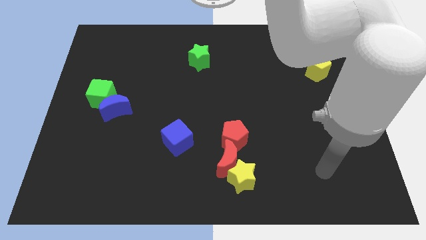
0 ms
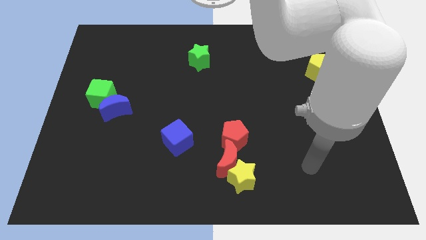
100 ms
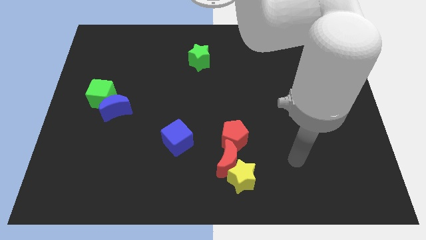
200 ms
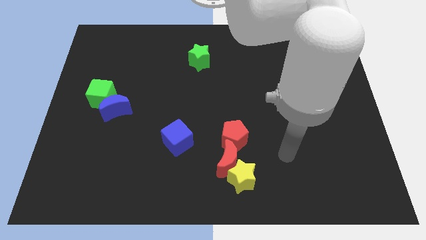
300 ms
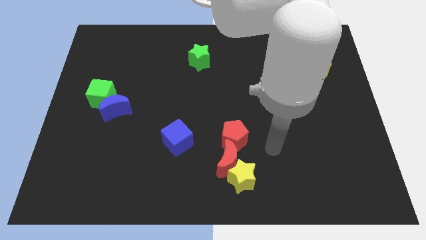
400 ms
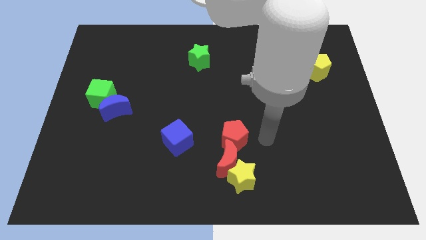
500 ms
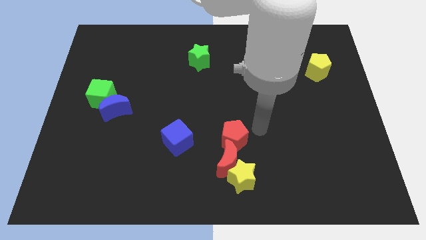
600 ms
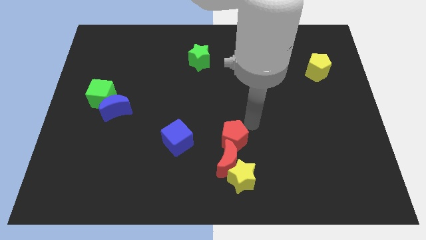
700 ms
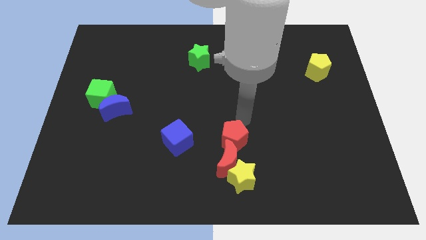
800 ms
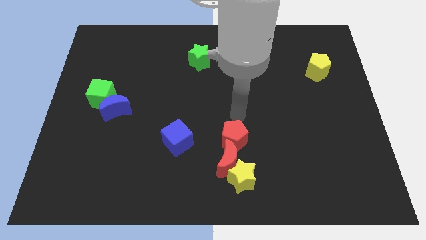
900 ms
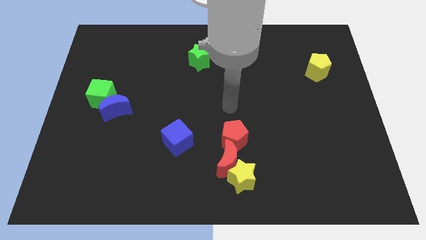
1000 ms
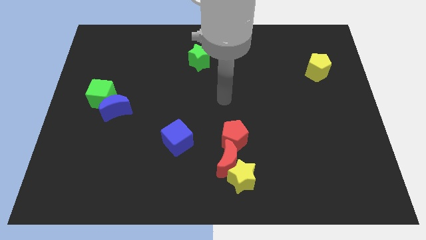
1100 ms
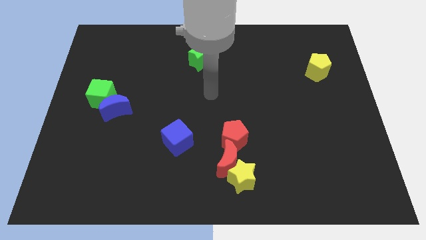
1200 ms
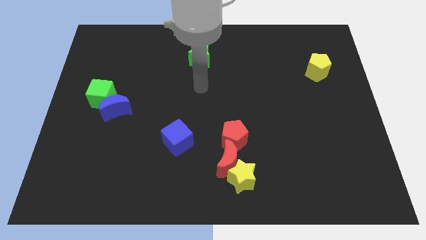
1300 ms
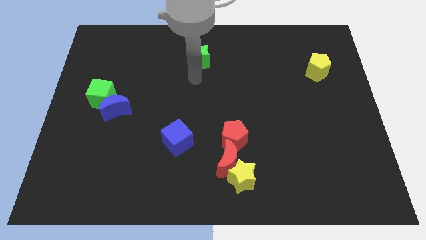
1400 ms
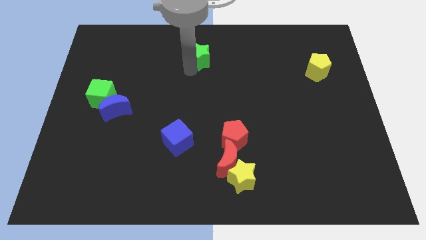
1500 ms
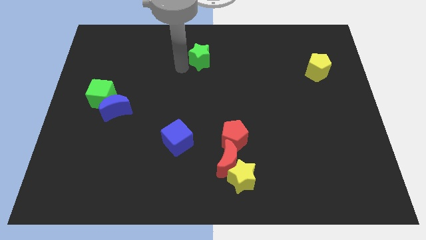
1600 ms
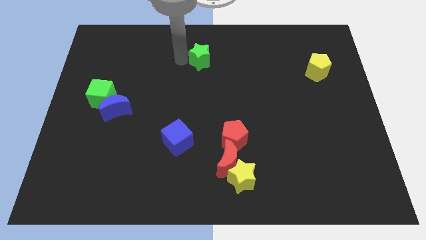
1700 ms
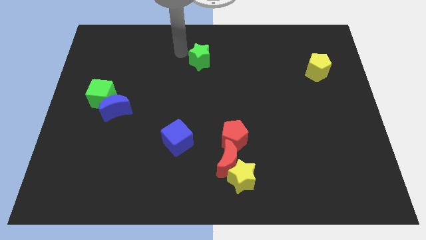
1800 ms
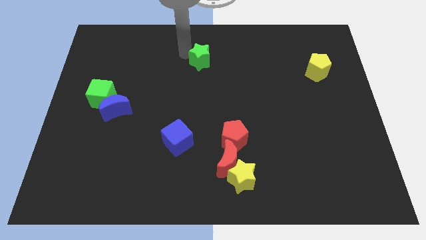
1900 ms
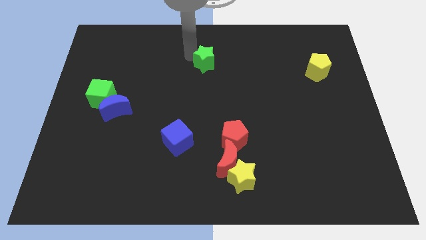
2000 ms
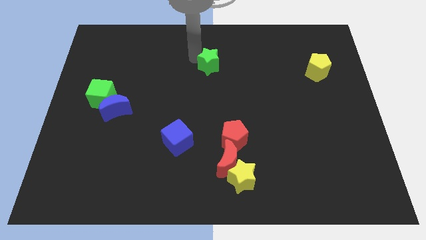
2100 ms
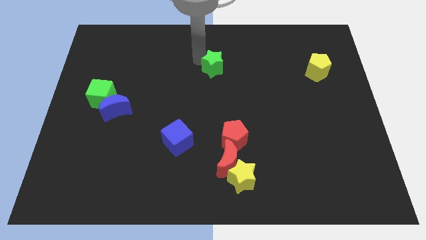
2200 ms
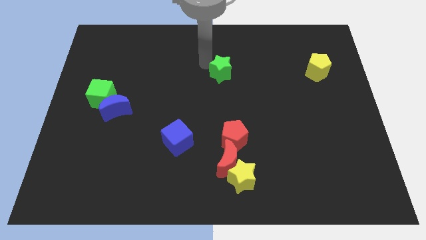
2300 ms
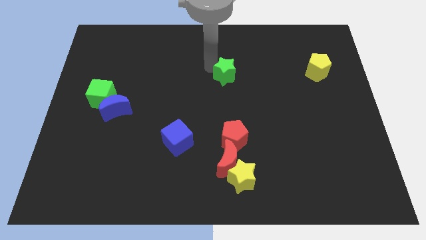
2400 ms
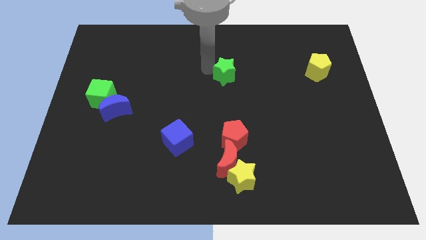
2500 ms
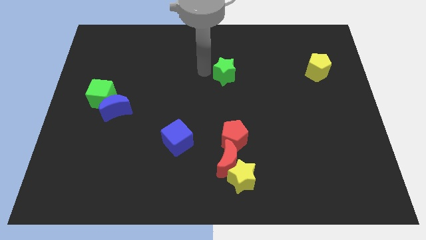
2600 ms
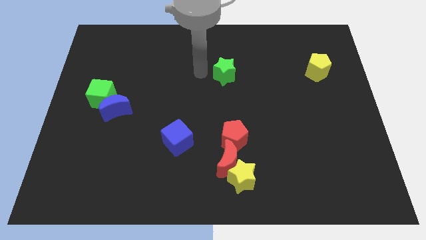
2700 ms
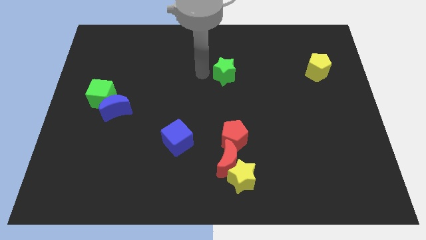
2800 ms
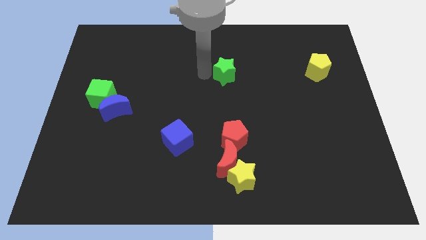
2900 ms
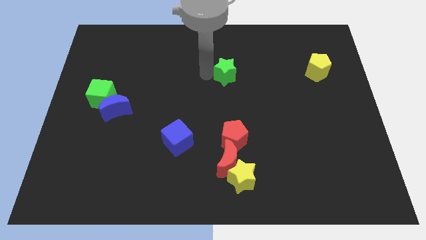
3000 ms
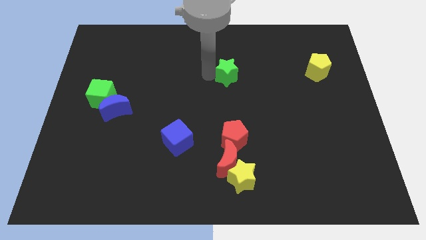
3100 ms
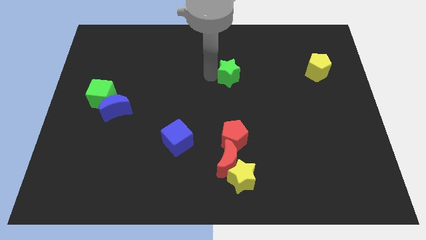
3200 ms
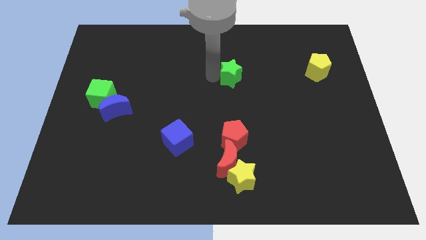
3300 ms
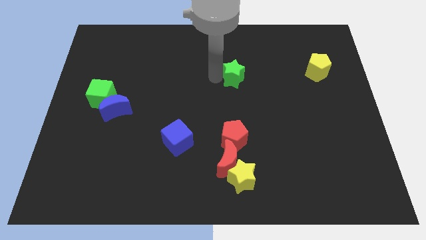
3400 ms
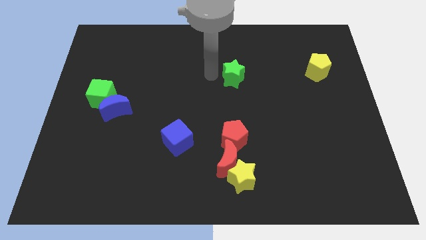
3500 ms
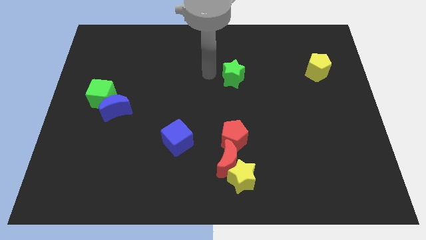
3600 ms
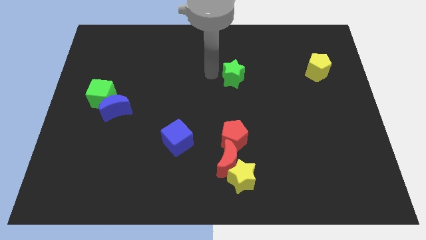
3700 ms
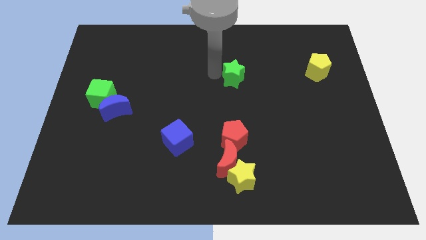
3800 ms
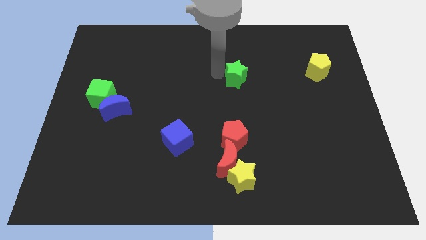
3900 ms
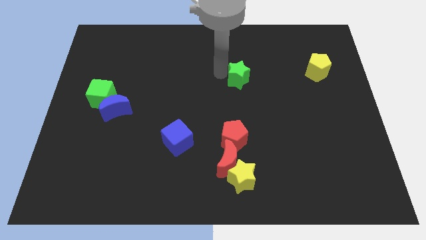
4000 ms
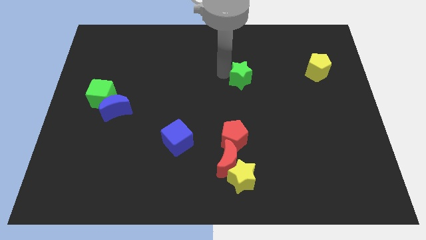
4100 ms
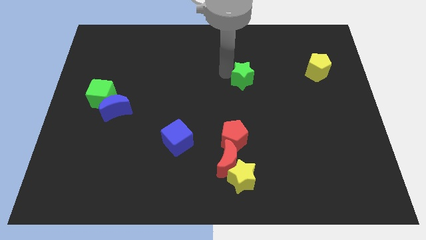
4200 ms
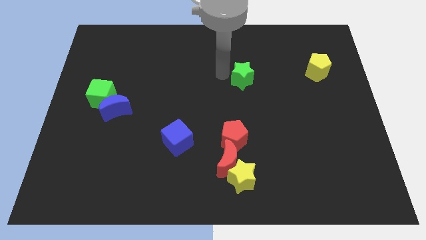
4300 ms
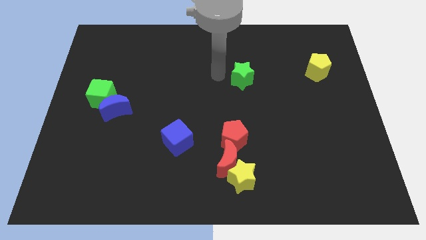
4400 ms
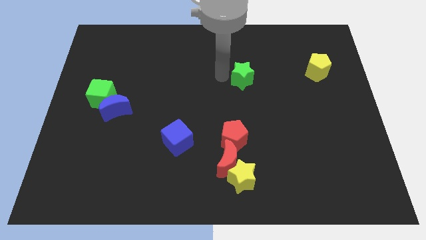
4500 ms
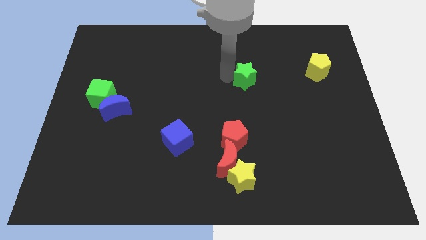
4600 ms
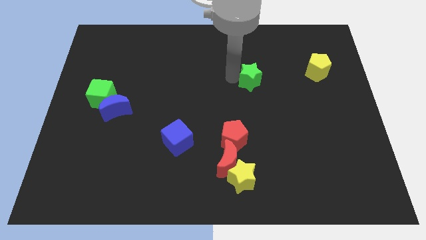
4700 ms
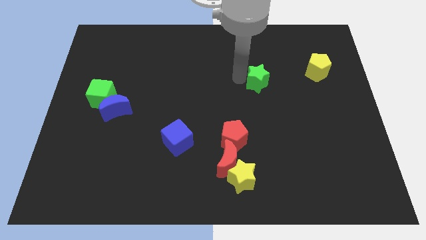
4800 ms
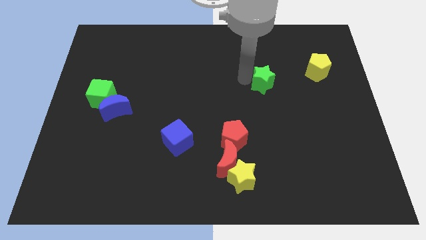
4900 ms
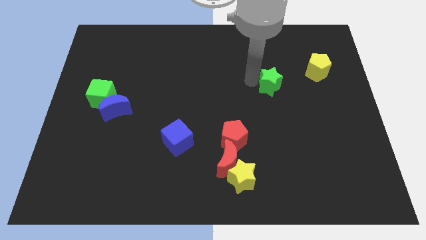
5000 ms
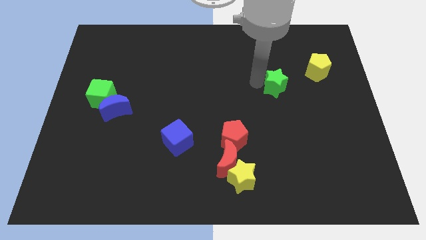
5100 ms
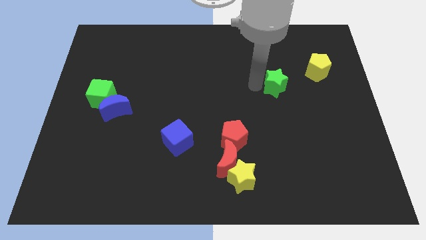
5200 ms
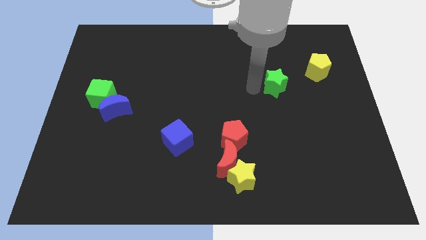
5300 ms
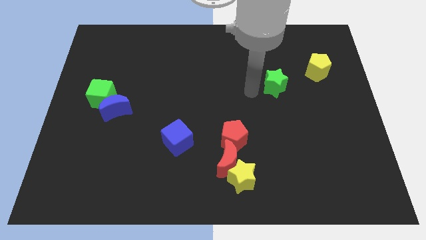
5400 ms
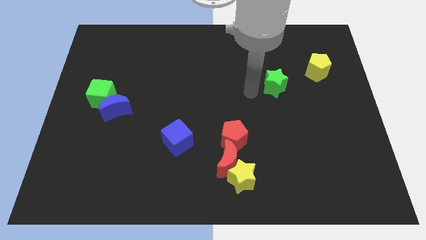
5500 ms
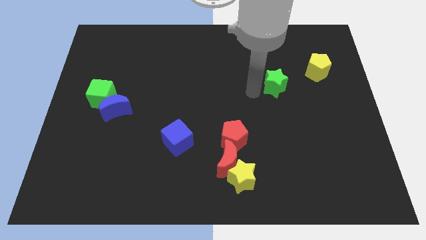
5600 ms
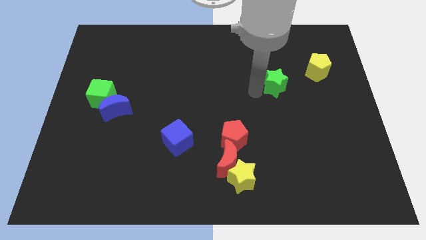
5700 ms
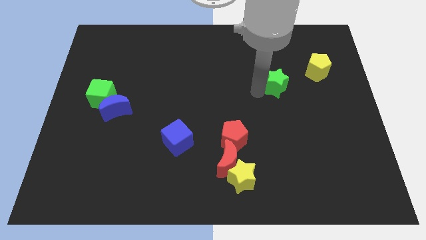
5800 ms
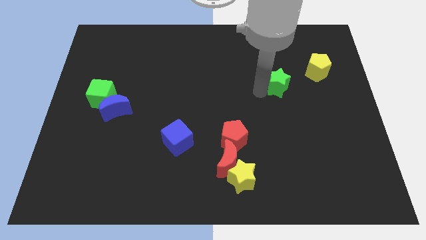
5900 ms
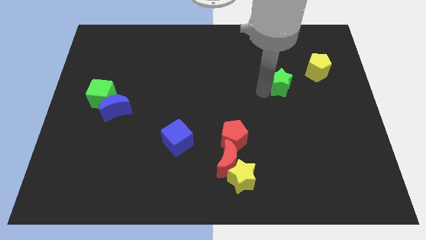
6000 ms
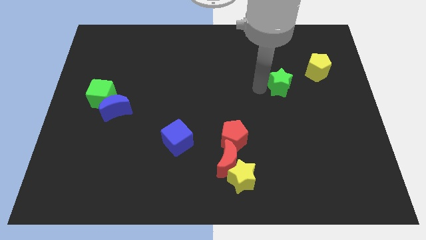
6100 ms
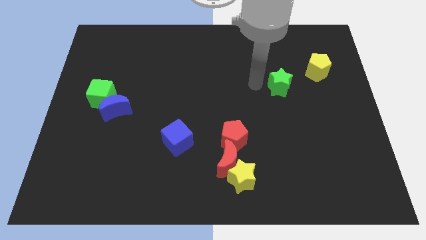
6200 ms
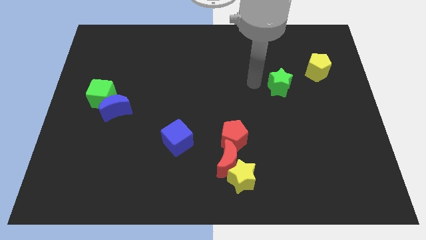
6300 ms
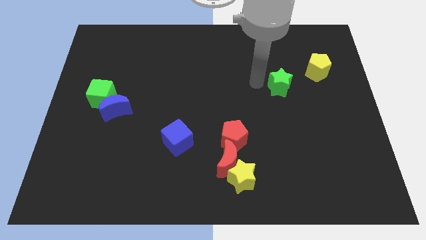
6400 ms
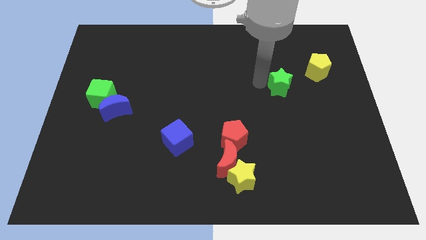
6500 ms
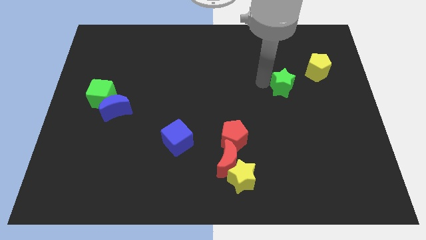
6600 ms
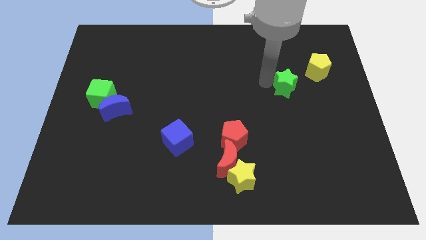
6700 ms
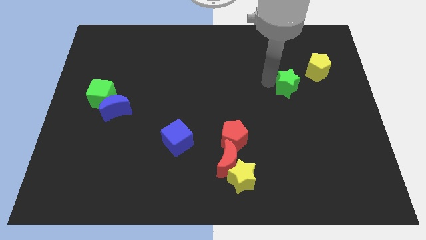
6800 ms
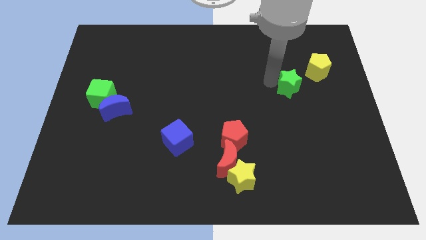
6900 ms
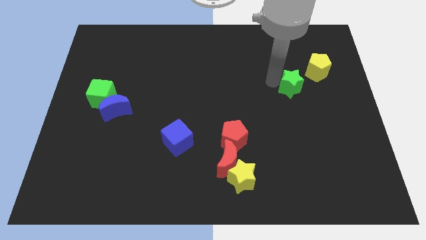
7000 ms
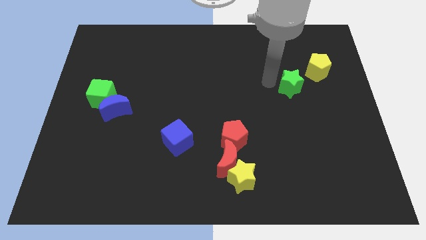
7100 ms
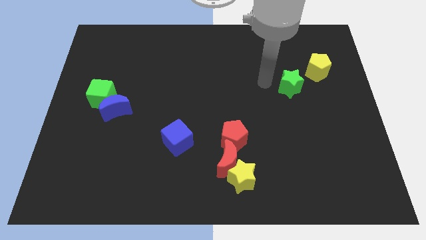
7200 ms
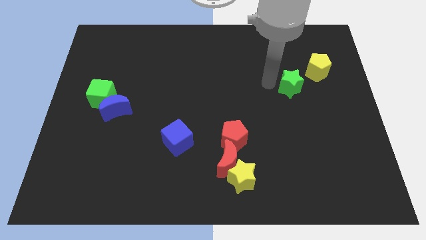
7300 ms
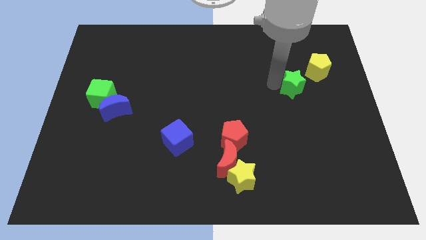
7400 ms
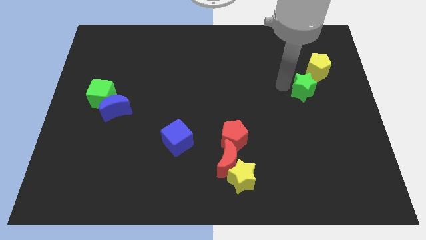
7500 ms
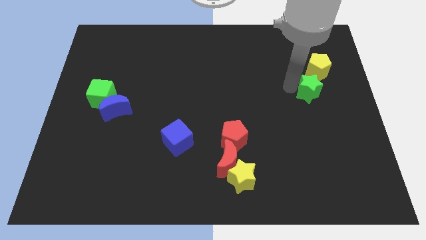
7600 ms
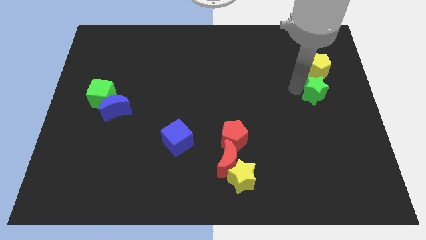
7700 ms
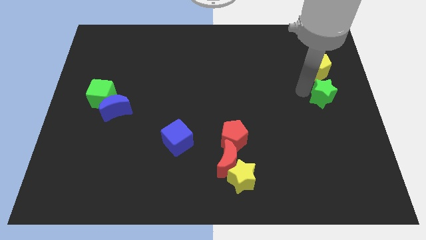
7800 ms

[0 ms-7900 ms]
push the green star to the center right
